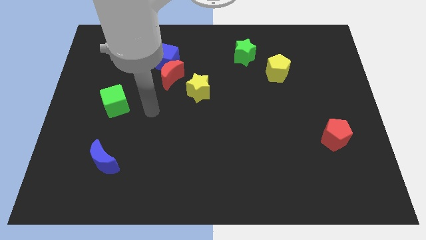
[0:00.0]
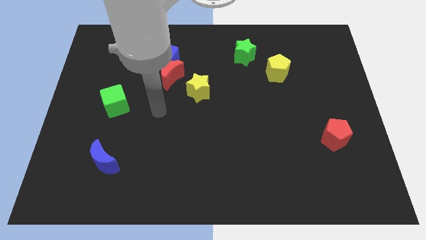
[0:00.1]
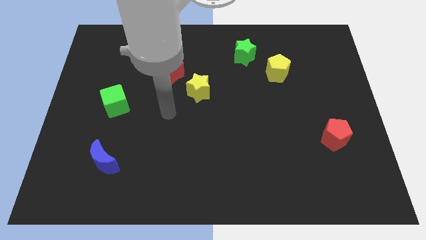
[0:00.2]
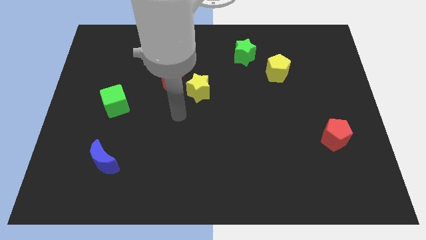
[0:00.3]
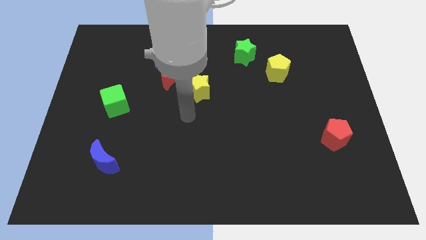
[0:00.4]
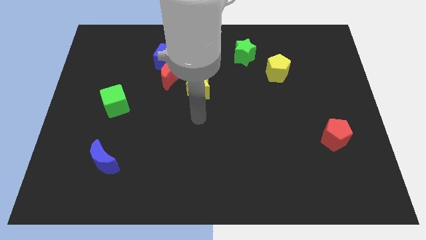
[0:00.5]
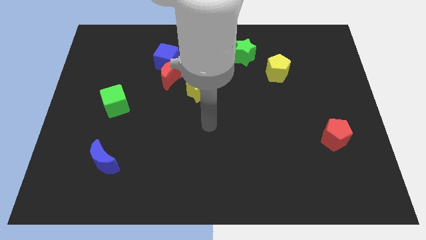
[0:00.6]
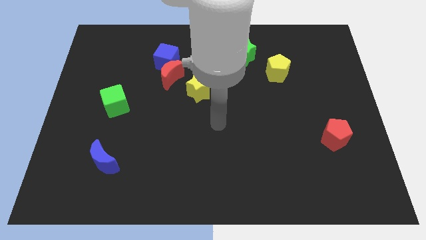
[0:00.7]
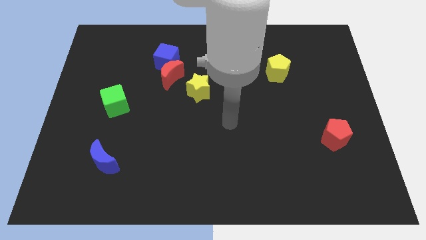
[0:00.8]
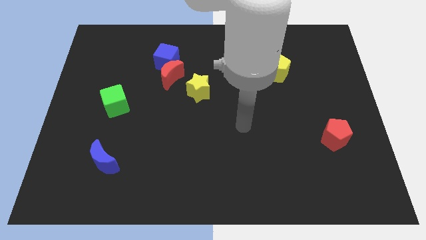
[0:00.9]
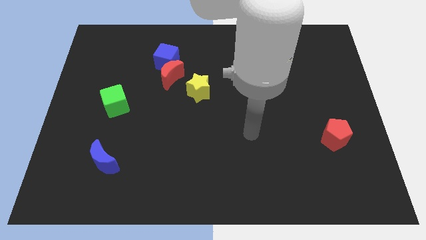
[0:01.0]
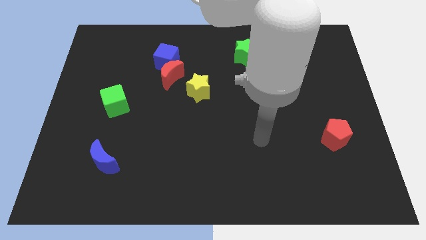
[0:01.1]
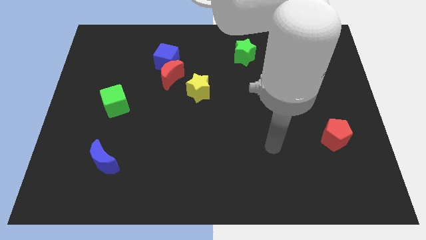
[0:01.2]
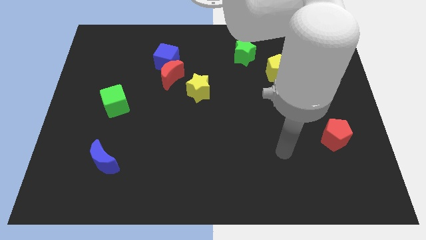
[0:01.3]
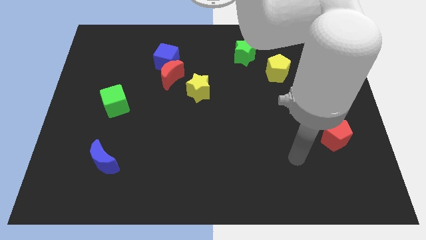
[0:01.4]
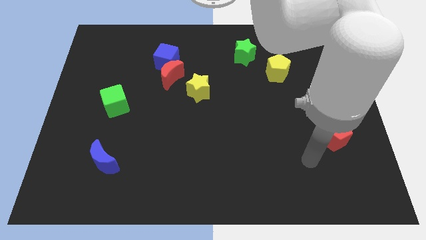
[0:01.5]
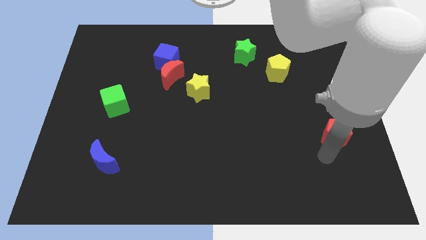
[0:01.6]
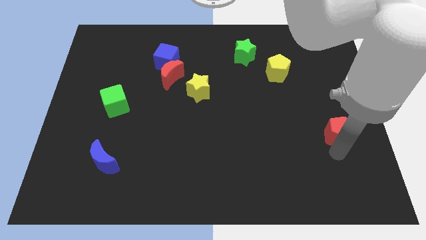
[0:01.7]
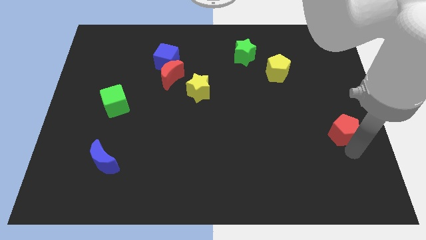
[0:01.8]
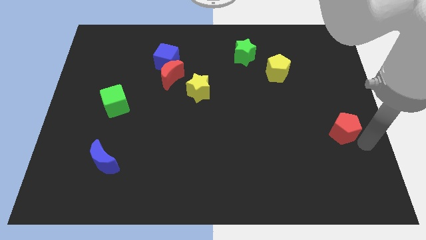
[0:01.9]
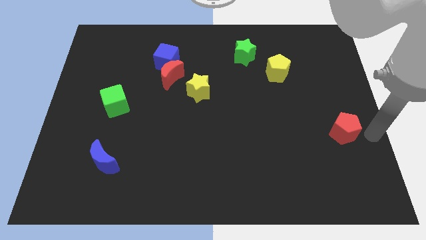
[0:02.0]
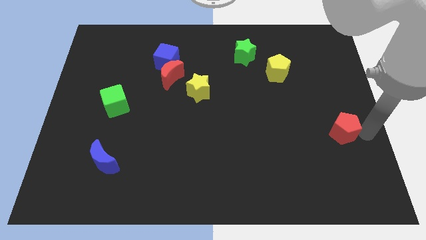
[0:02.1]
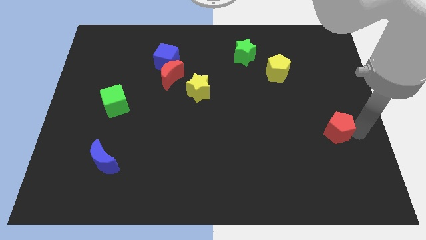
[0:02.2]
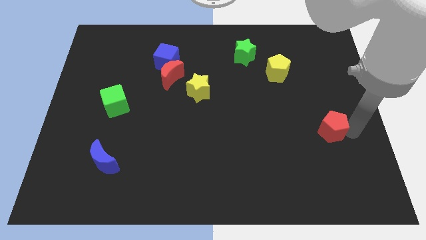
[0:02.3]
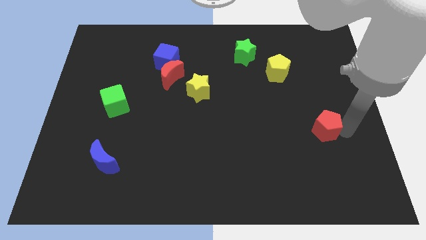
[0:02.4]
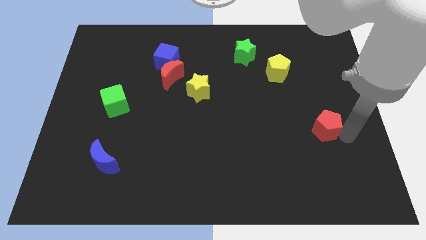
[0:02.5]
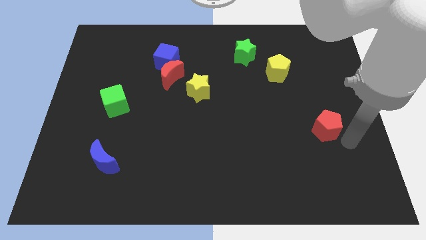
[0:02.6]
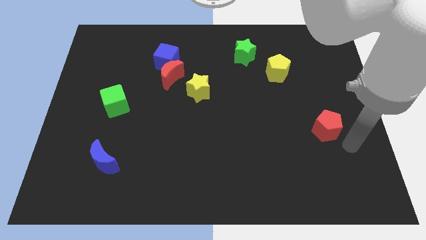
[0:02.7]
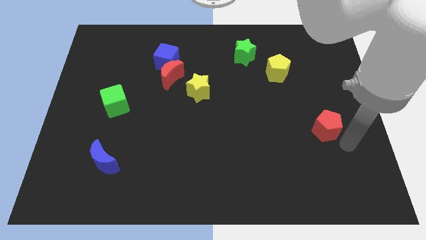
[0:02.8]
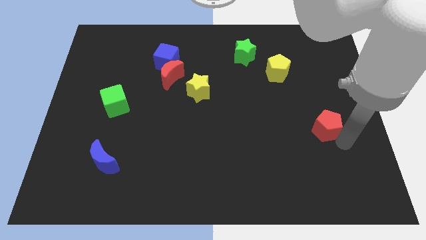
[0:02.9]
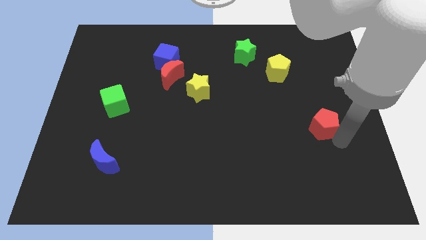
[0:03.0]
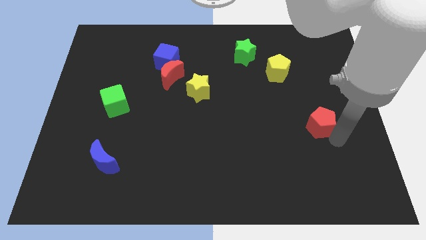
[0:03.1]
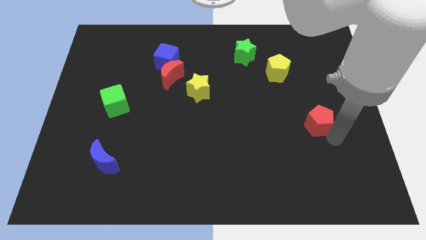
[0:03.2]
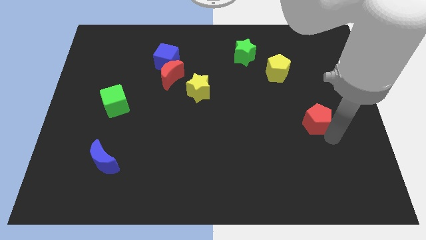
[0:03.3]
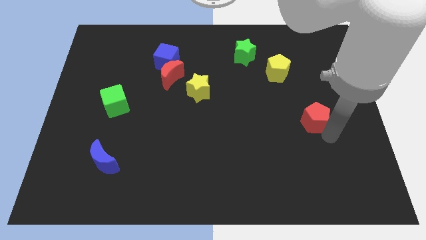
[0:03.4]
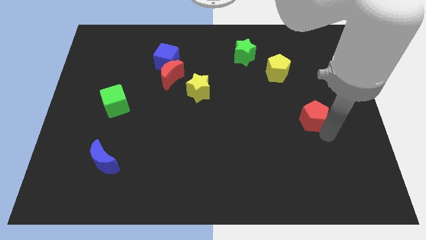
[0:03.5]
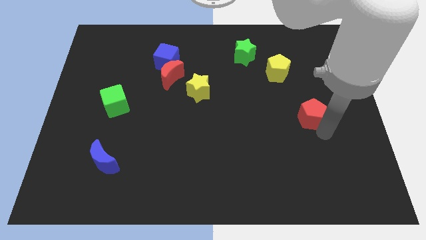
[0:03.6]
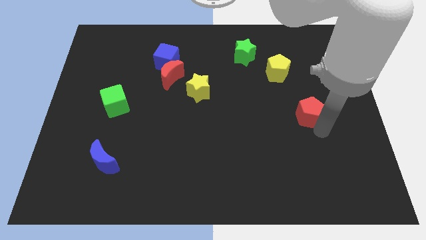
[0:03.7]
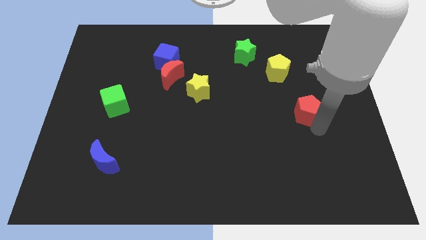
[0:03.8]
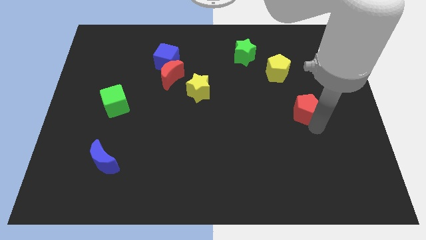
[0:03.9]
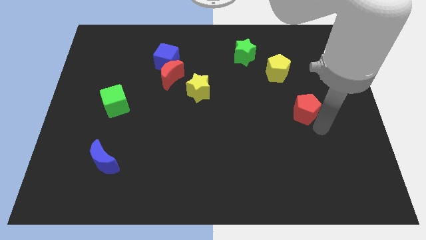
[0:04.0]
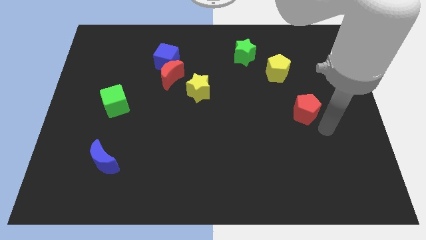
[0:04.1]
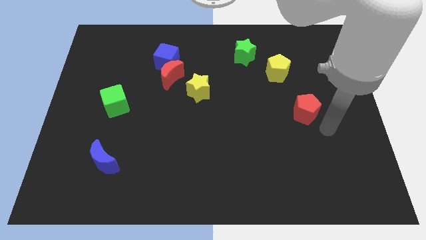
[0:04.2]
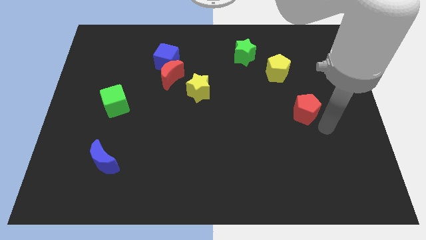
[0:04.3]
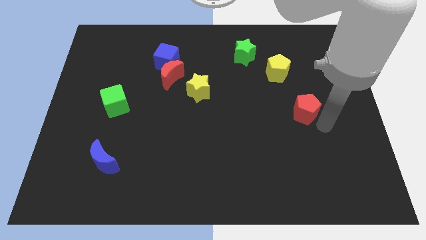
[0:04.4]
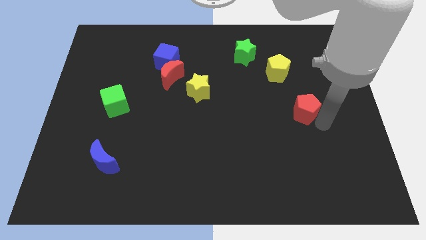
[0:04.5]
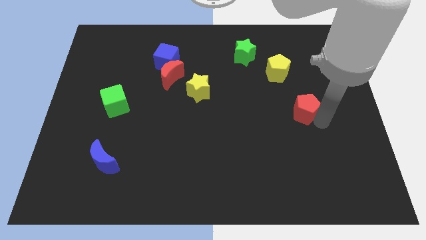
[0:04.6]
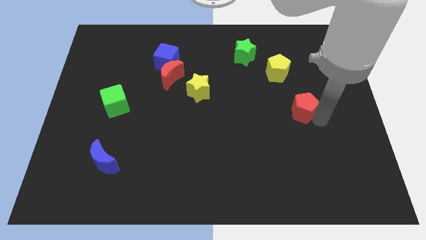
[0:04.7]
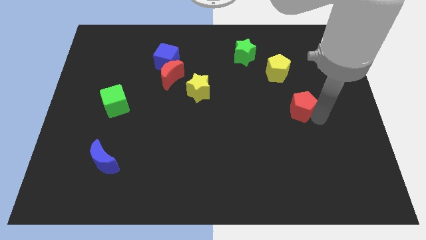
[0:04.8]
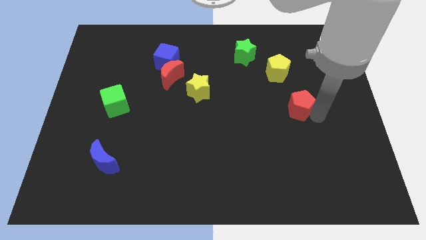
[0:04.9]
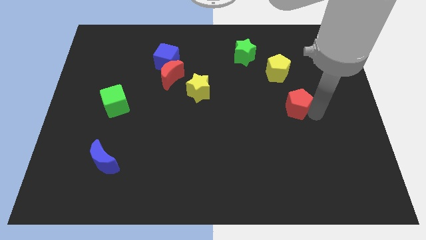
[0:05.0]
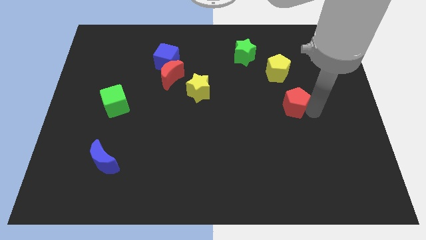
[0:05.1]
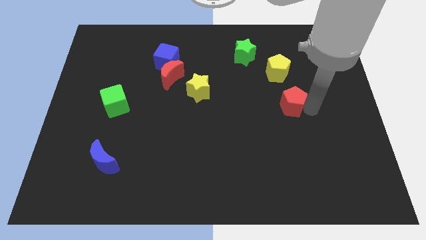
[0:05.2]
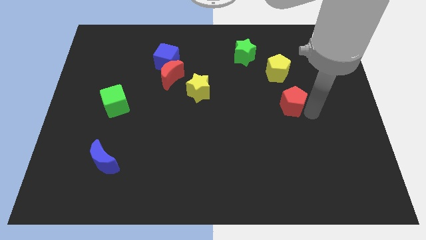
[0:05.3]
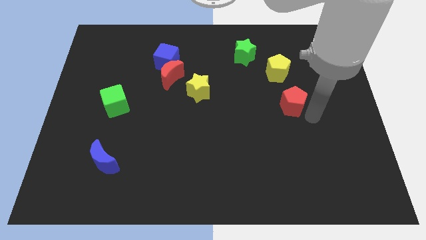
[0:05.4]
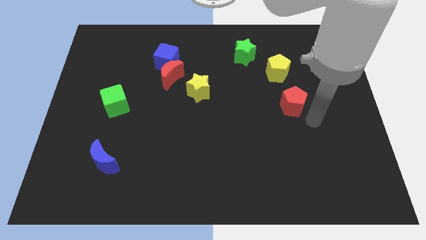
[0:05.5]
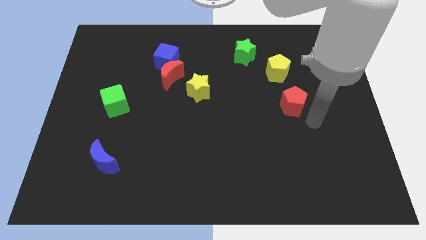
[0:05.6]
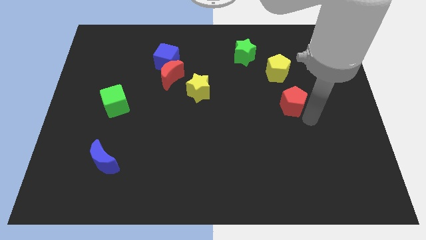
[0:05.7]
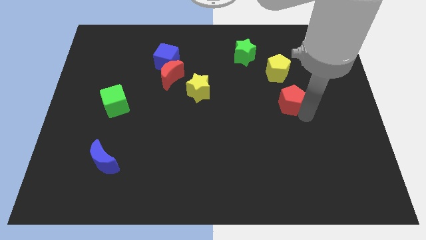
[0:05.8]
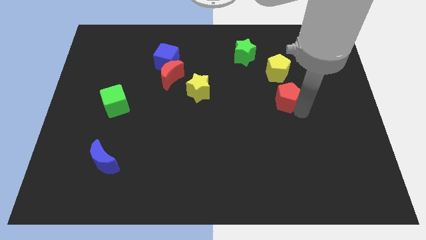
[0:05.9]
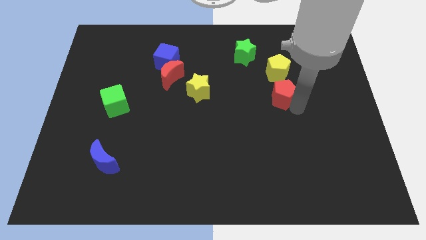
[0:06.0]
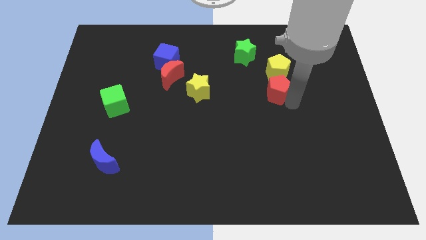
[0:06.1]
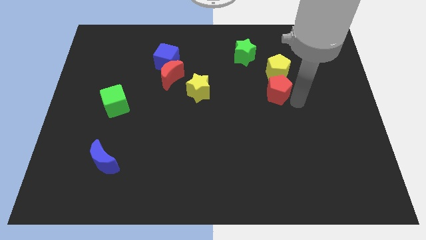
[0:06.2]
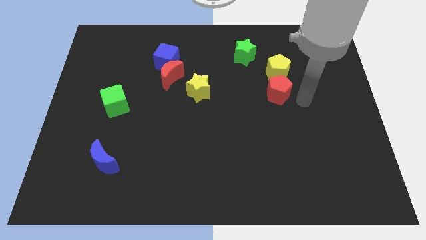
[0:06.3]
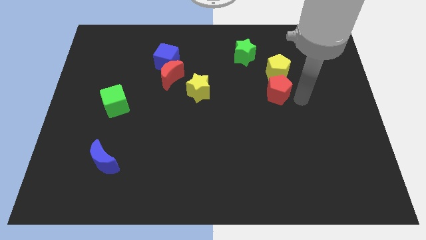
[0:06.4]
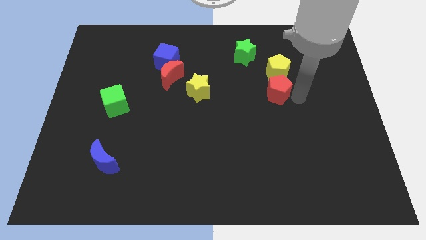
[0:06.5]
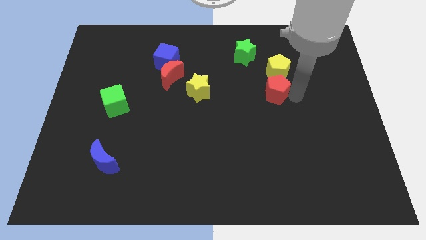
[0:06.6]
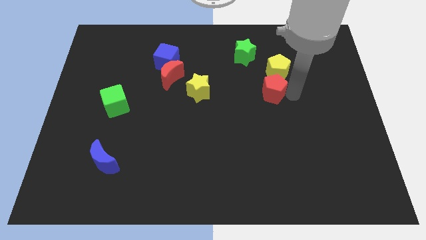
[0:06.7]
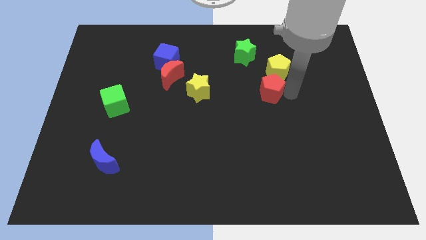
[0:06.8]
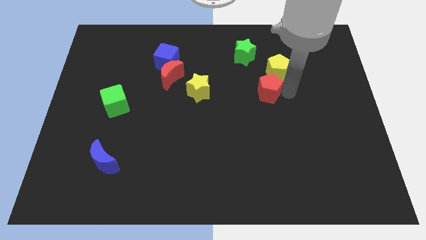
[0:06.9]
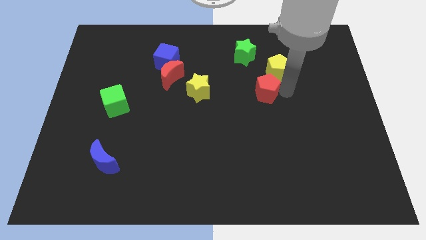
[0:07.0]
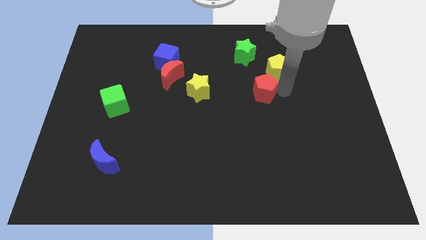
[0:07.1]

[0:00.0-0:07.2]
slide the red pentagon up and then left

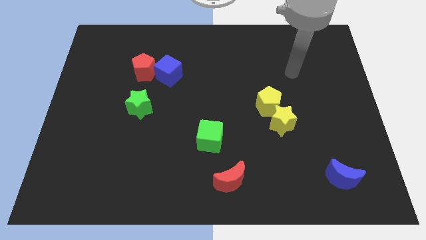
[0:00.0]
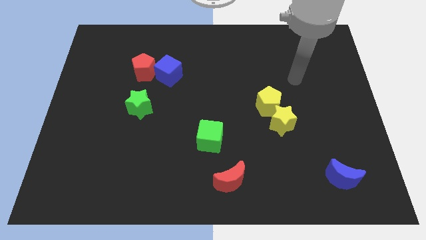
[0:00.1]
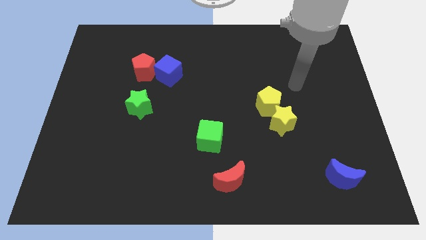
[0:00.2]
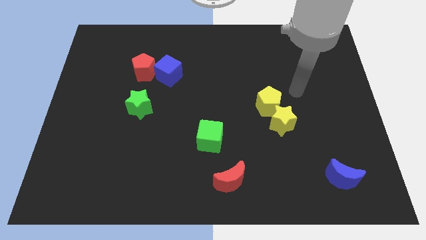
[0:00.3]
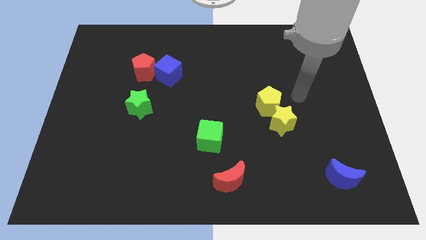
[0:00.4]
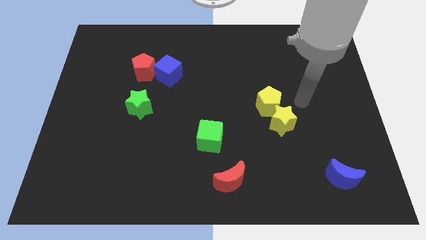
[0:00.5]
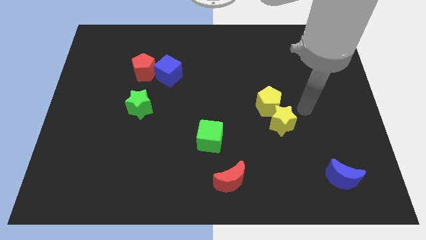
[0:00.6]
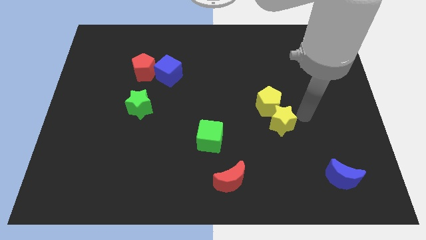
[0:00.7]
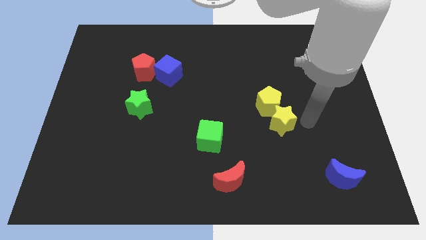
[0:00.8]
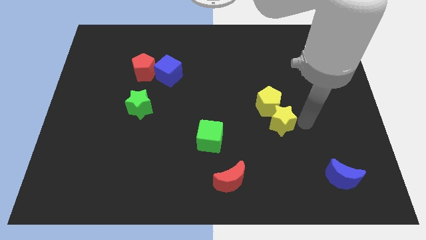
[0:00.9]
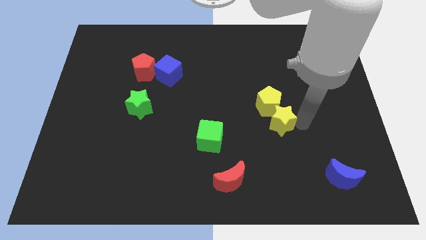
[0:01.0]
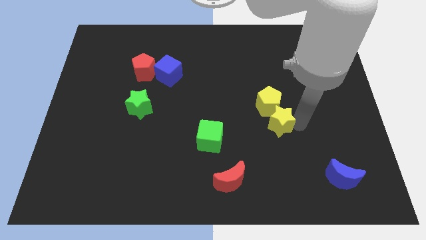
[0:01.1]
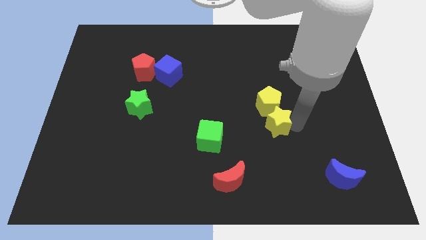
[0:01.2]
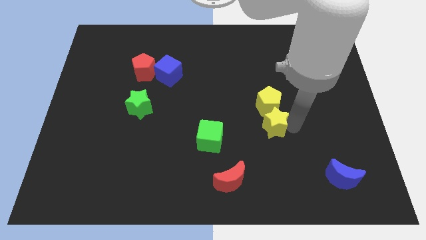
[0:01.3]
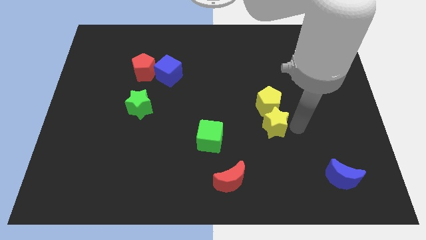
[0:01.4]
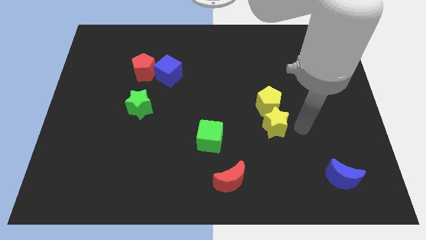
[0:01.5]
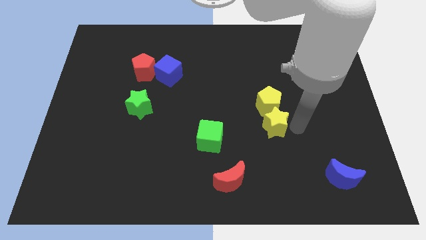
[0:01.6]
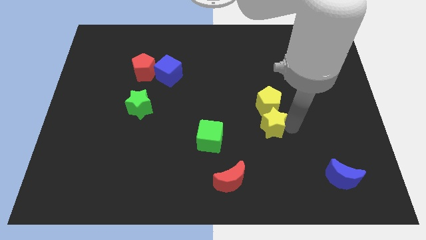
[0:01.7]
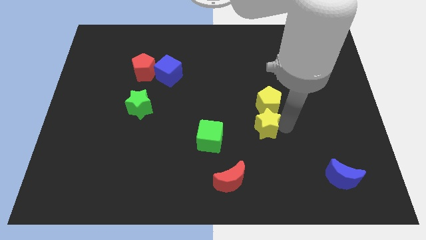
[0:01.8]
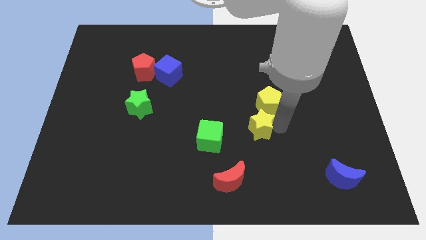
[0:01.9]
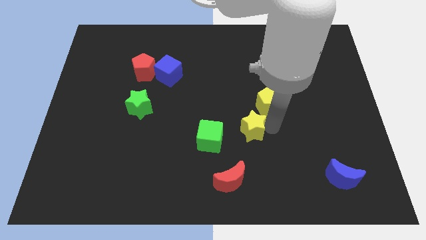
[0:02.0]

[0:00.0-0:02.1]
slightly move the yellow star to the left
